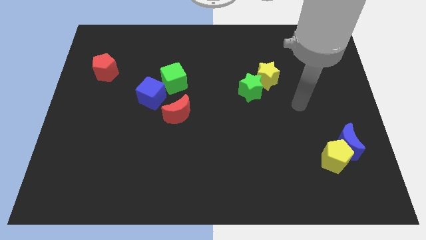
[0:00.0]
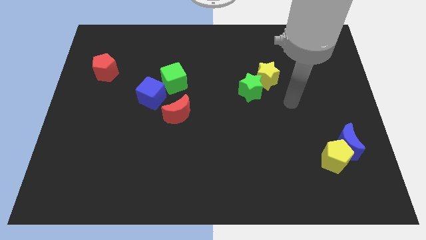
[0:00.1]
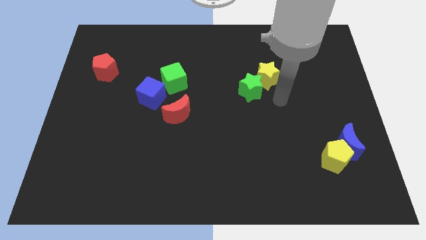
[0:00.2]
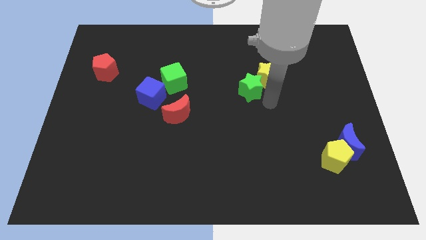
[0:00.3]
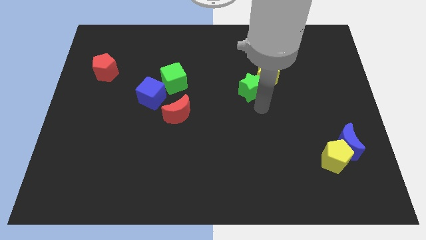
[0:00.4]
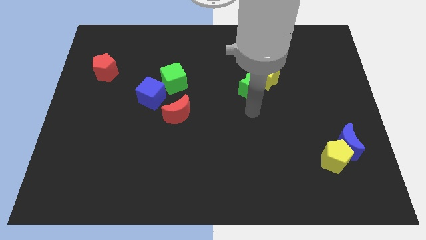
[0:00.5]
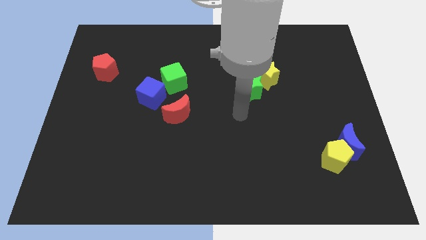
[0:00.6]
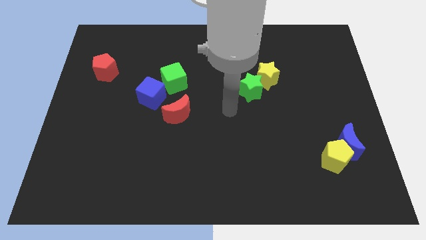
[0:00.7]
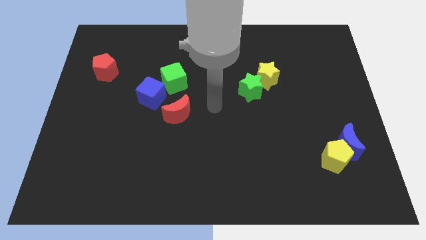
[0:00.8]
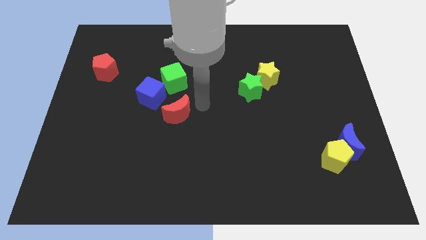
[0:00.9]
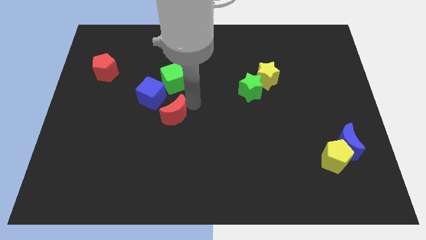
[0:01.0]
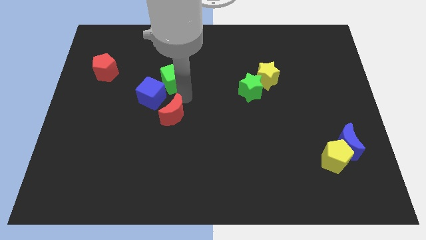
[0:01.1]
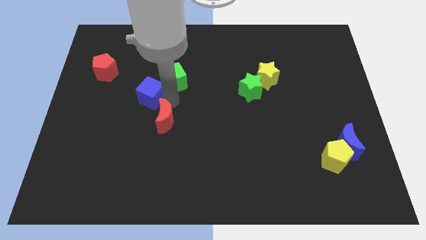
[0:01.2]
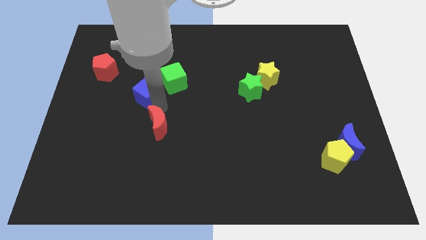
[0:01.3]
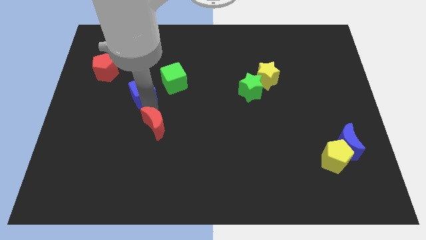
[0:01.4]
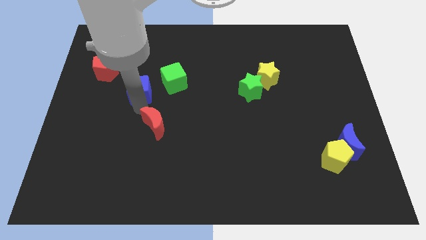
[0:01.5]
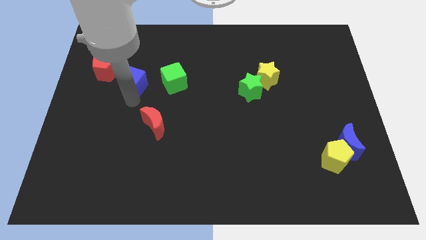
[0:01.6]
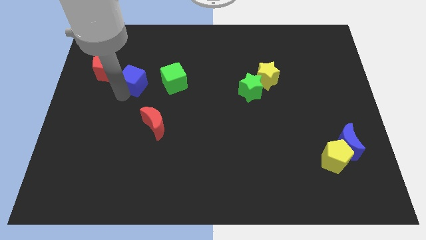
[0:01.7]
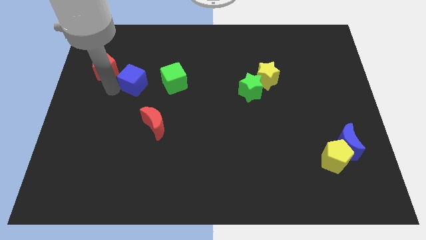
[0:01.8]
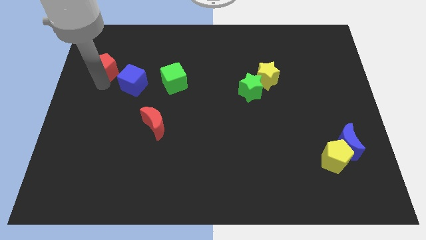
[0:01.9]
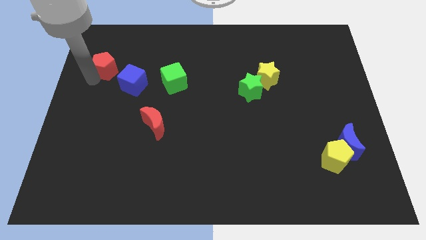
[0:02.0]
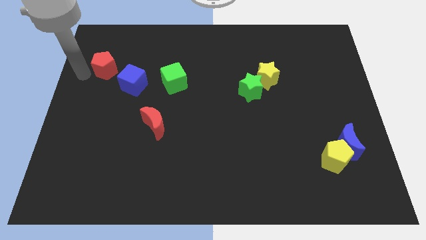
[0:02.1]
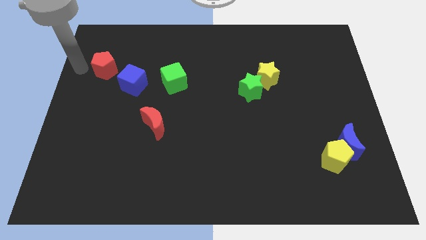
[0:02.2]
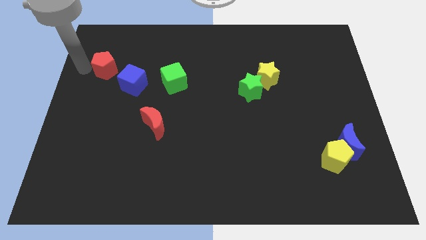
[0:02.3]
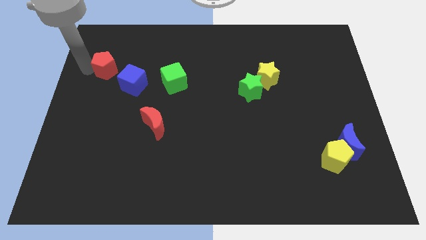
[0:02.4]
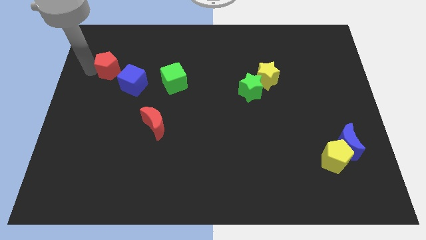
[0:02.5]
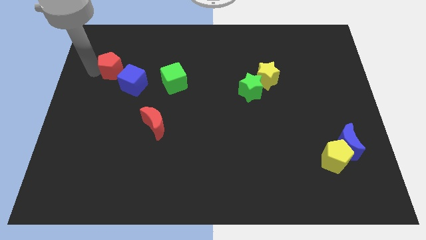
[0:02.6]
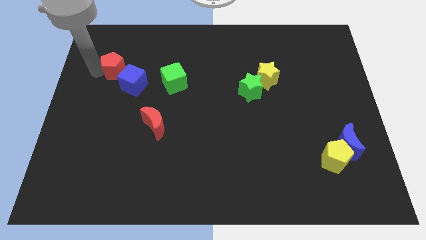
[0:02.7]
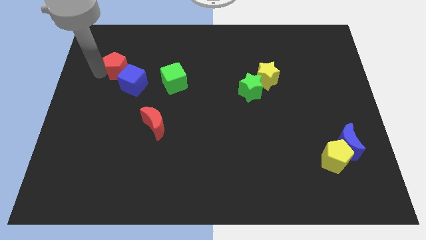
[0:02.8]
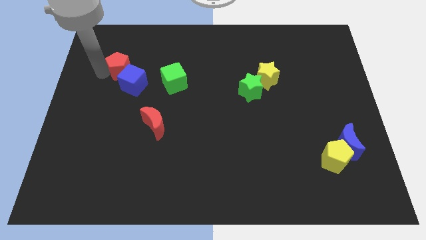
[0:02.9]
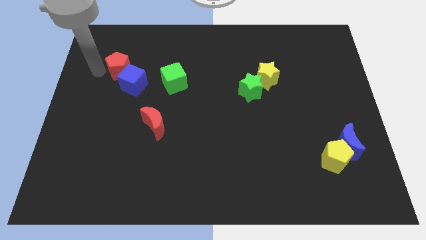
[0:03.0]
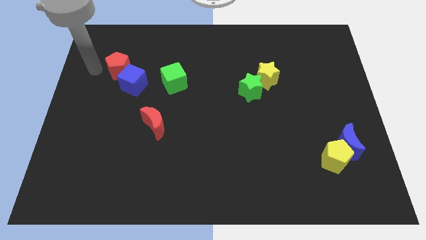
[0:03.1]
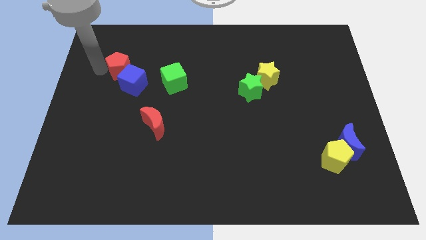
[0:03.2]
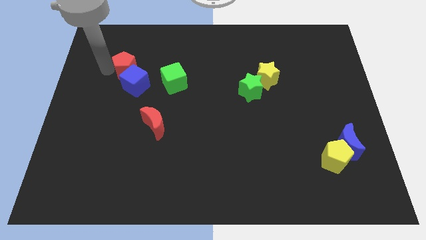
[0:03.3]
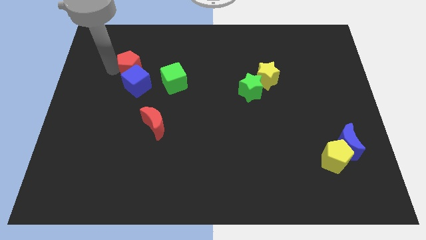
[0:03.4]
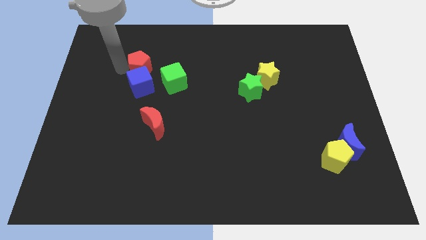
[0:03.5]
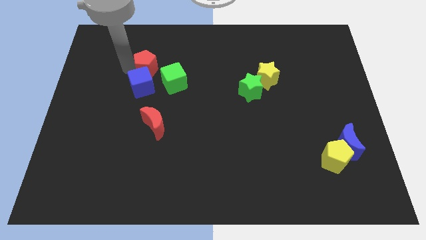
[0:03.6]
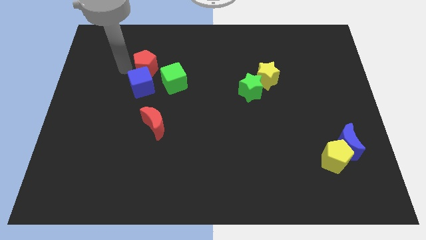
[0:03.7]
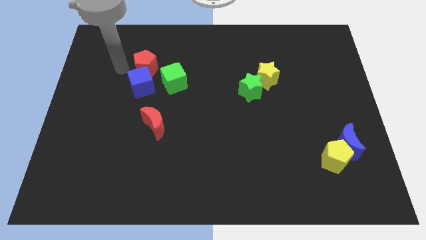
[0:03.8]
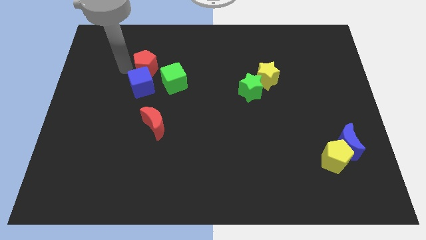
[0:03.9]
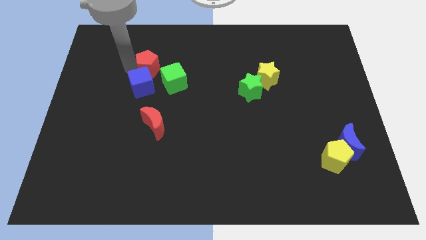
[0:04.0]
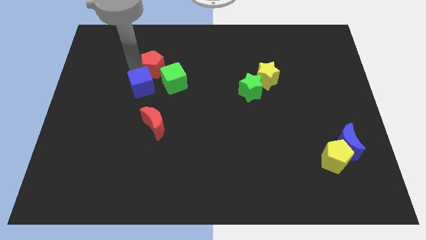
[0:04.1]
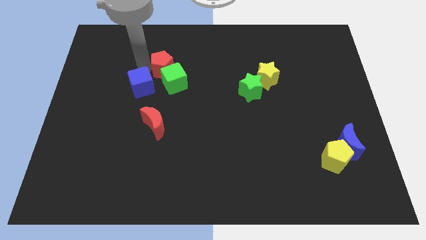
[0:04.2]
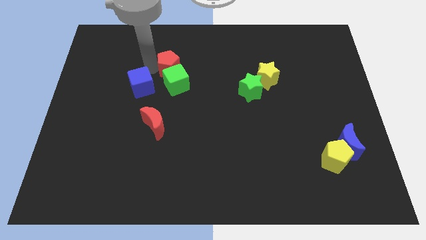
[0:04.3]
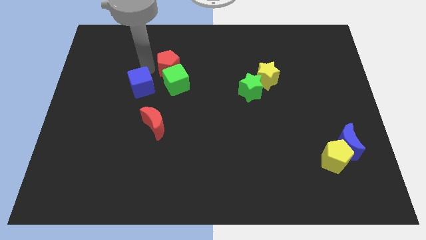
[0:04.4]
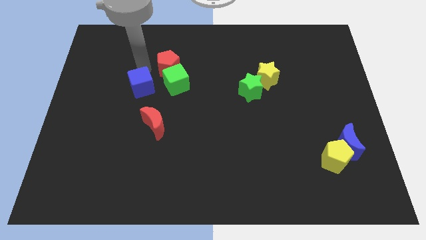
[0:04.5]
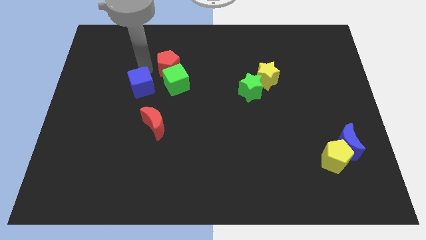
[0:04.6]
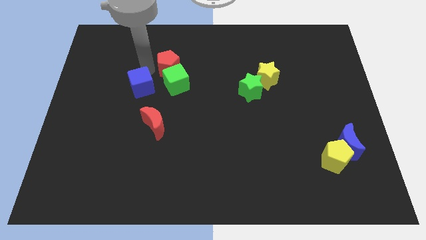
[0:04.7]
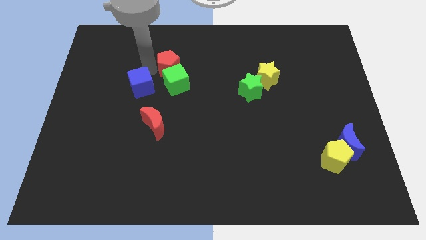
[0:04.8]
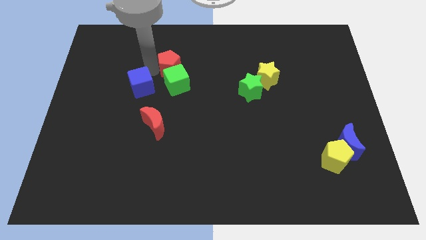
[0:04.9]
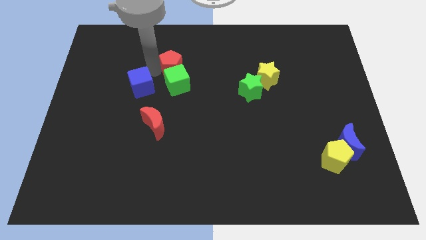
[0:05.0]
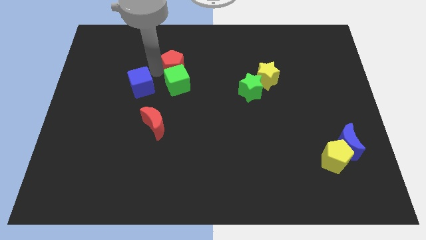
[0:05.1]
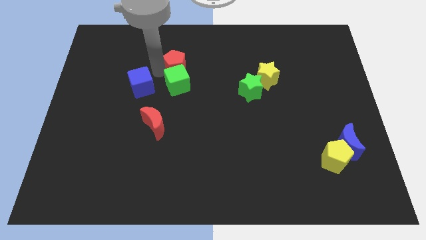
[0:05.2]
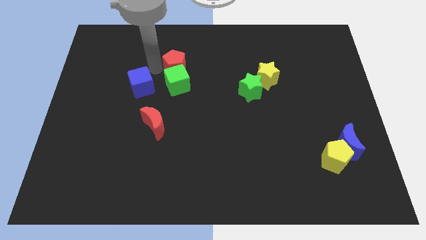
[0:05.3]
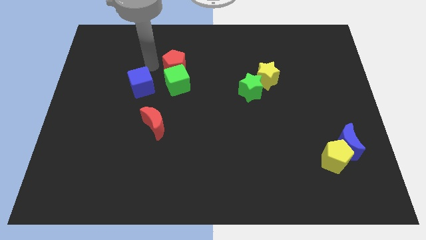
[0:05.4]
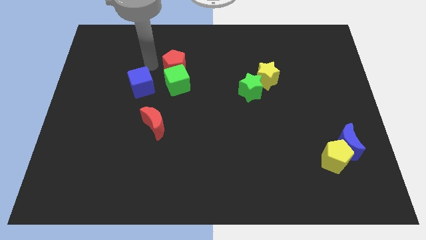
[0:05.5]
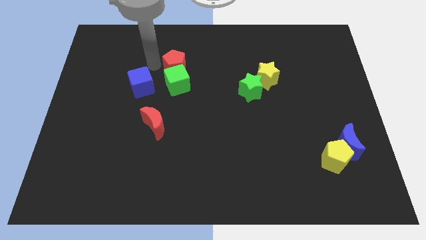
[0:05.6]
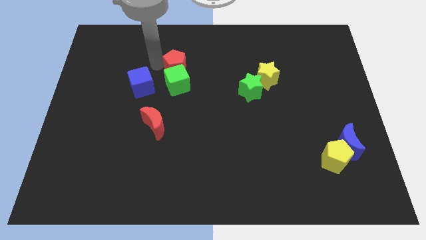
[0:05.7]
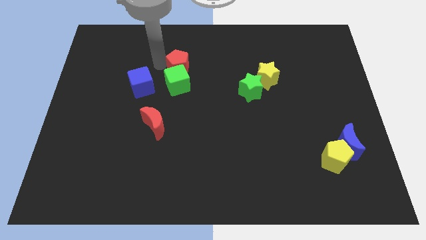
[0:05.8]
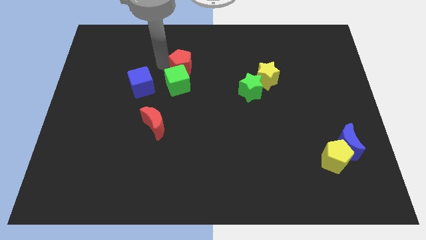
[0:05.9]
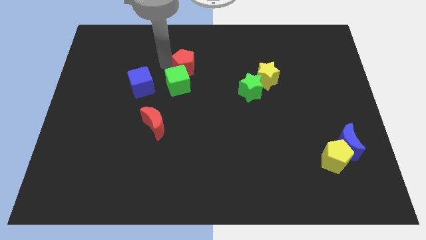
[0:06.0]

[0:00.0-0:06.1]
push the red pentagon right

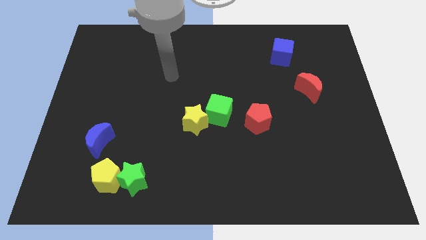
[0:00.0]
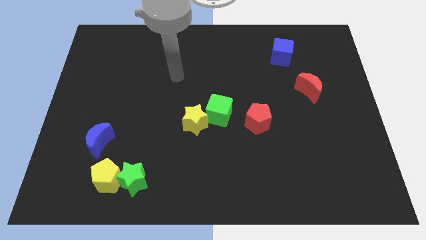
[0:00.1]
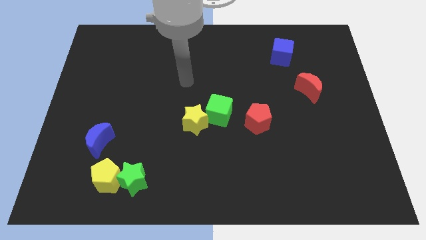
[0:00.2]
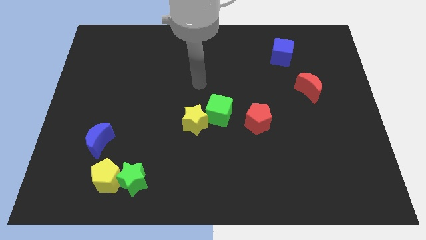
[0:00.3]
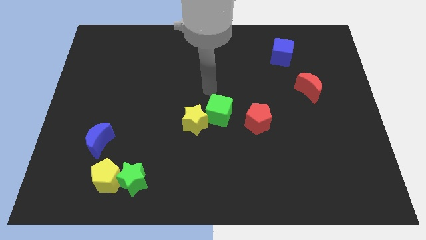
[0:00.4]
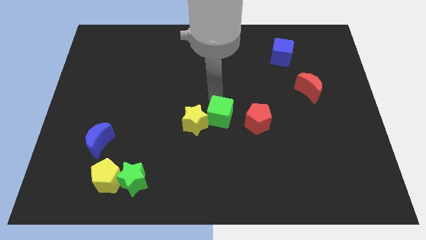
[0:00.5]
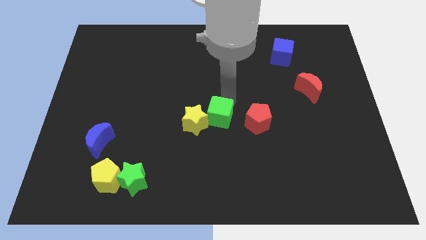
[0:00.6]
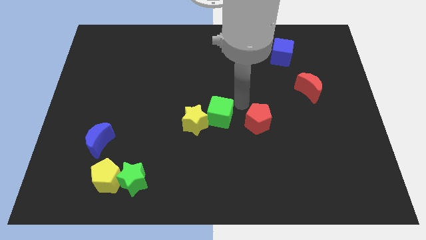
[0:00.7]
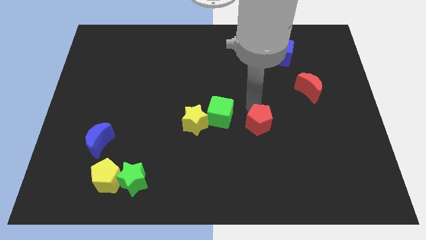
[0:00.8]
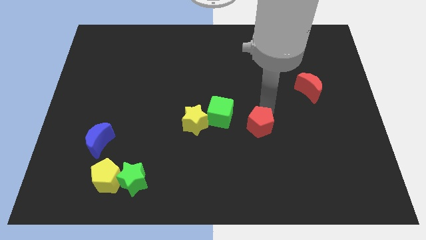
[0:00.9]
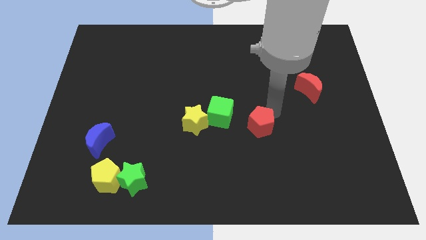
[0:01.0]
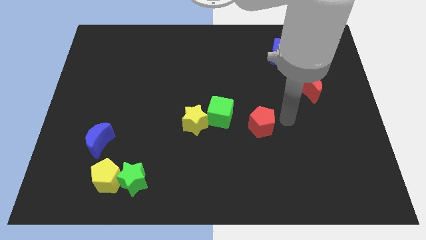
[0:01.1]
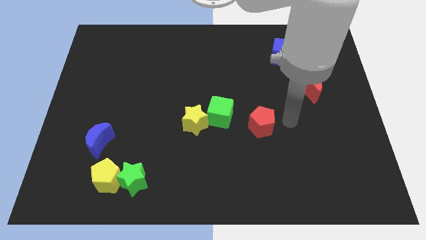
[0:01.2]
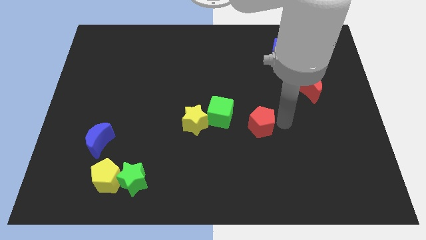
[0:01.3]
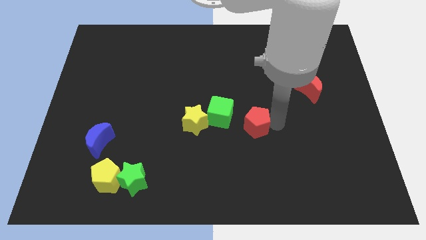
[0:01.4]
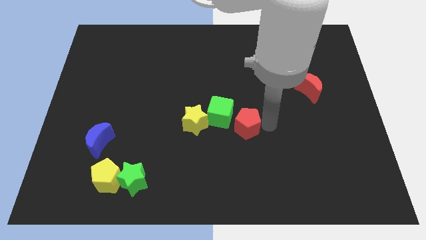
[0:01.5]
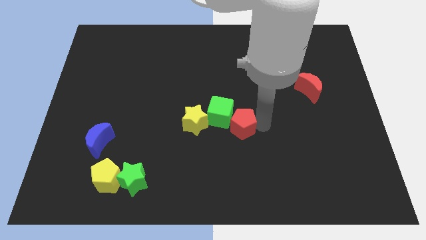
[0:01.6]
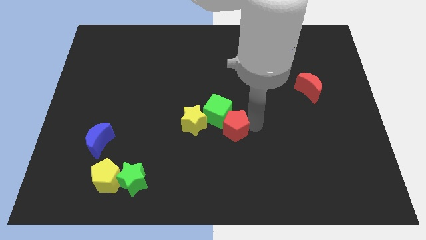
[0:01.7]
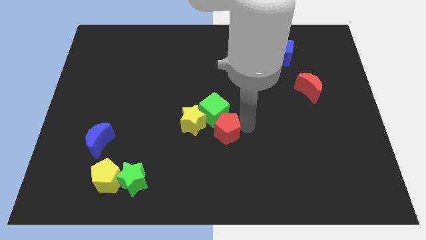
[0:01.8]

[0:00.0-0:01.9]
push the red pentagon a little to the left

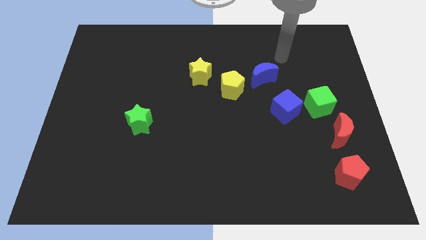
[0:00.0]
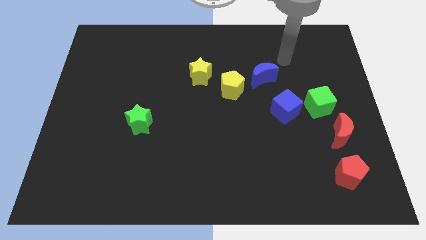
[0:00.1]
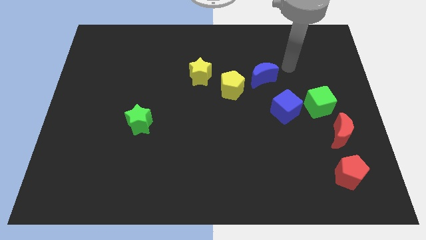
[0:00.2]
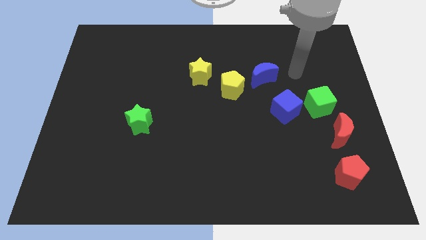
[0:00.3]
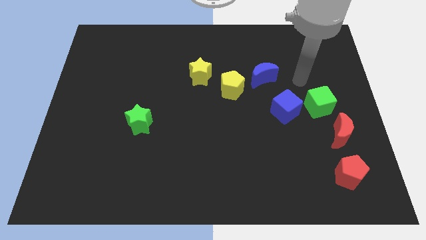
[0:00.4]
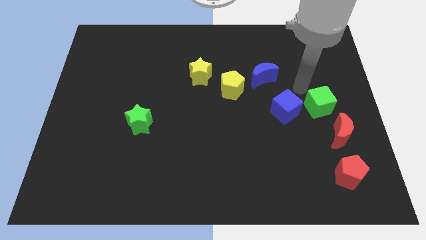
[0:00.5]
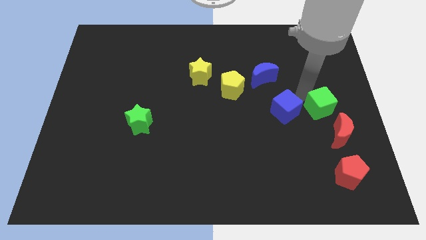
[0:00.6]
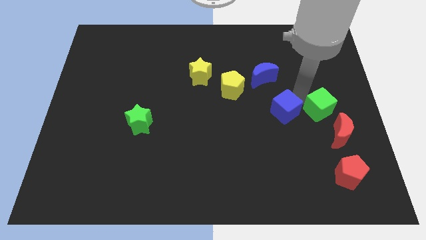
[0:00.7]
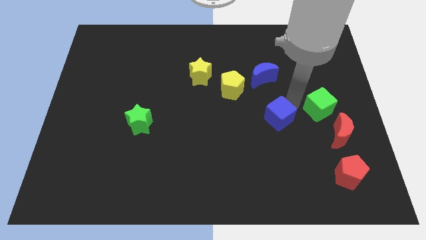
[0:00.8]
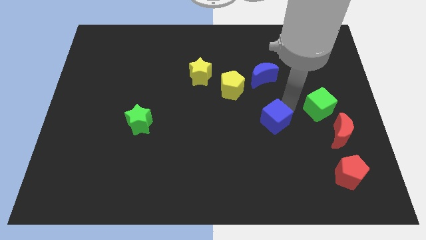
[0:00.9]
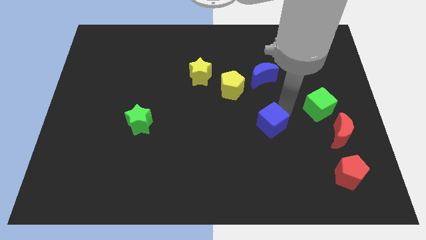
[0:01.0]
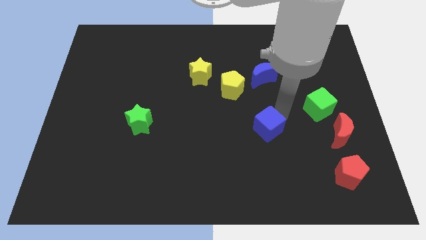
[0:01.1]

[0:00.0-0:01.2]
push the blue cube a little down and then left
